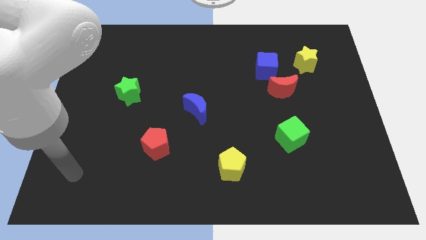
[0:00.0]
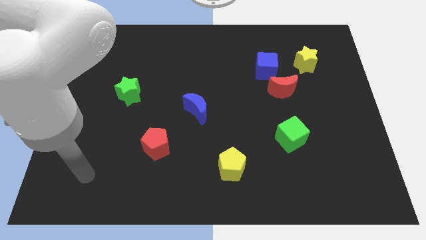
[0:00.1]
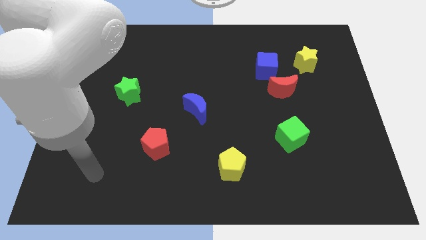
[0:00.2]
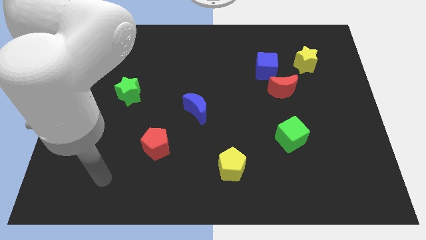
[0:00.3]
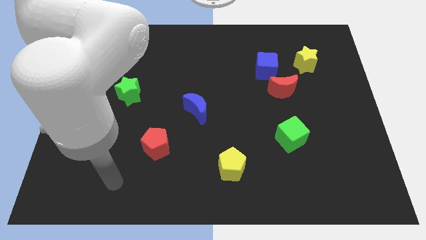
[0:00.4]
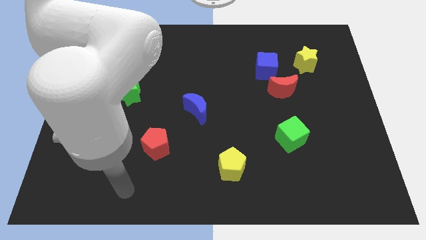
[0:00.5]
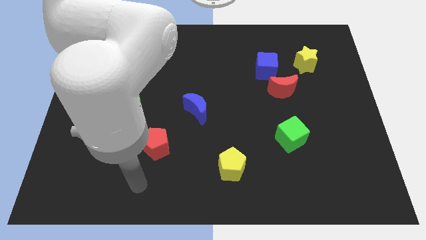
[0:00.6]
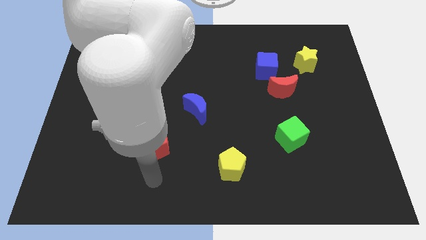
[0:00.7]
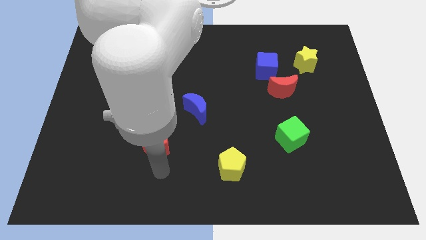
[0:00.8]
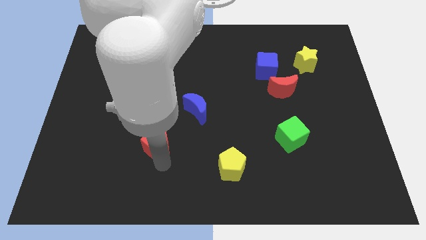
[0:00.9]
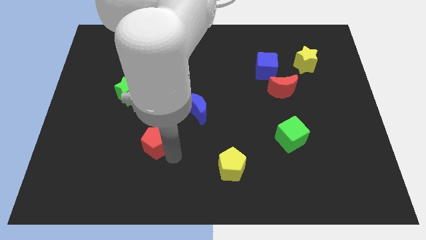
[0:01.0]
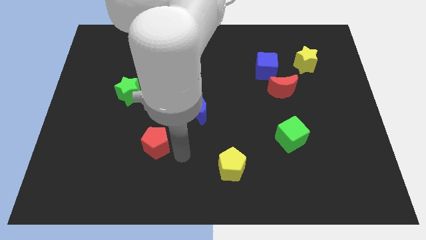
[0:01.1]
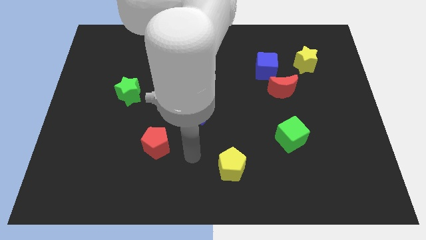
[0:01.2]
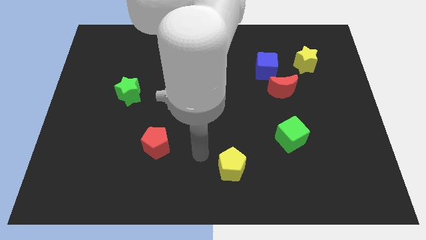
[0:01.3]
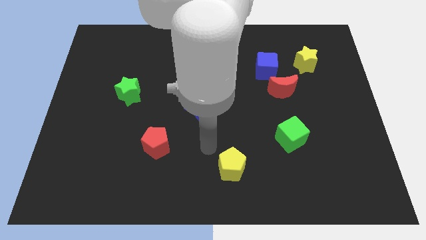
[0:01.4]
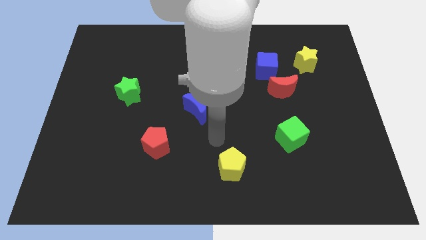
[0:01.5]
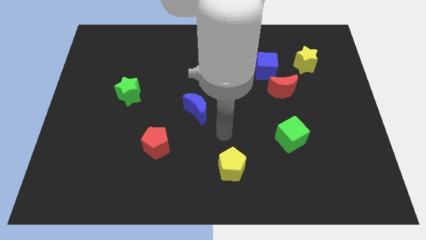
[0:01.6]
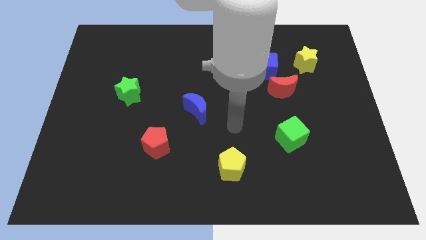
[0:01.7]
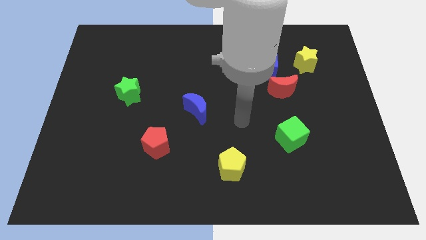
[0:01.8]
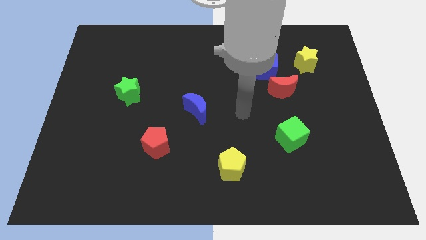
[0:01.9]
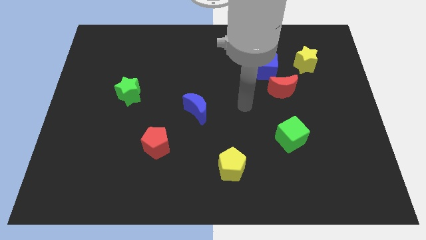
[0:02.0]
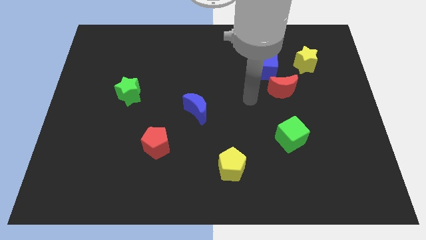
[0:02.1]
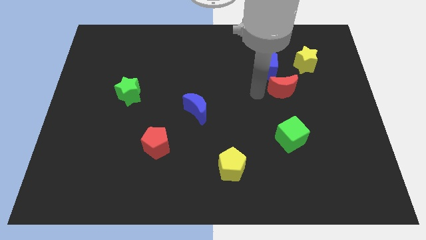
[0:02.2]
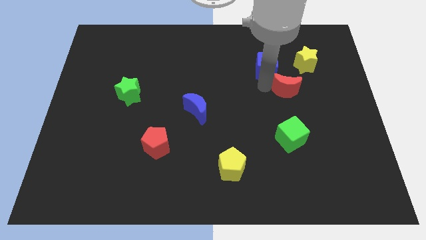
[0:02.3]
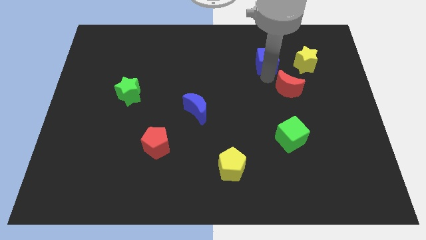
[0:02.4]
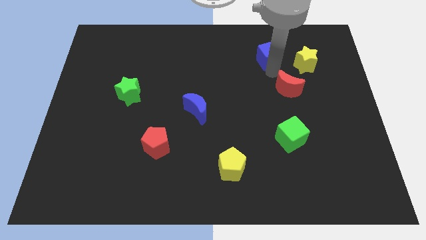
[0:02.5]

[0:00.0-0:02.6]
move the red moon away from the blue cube

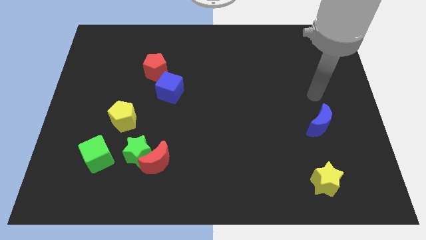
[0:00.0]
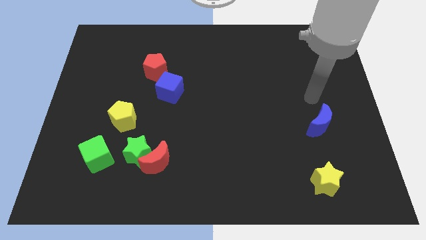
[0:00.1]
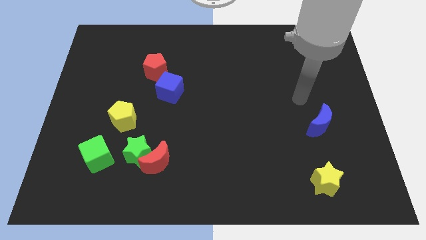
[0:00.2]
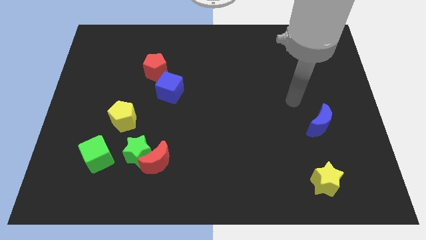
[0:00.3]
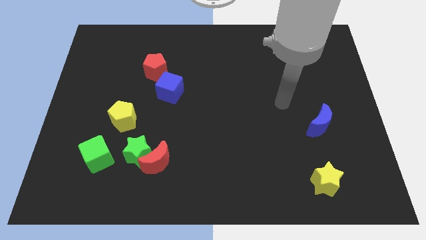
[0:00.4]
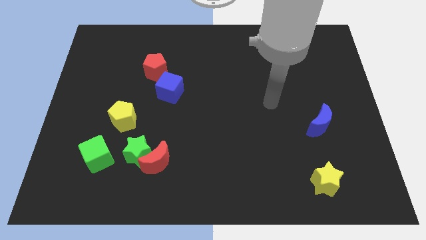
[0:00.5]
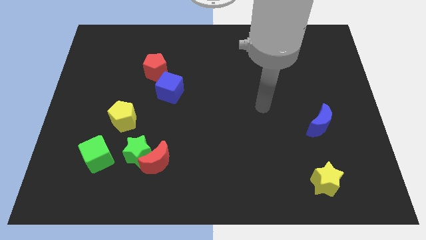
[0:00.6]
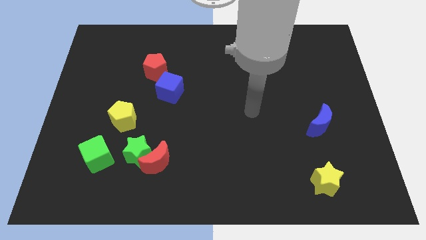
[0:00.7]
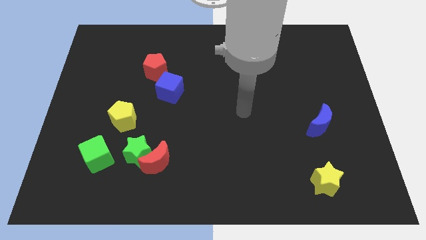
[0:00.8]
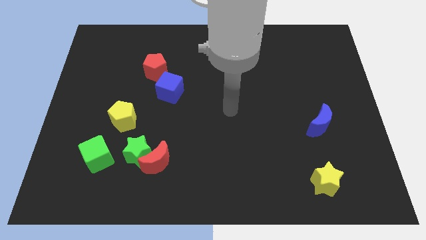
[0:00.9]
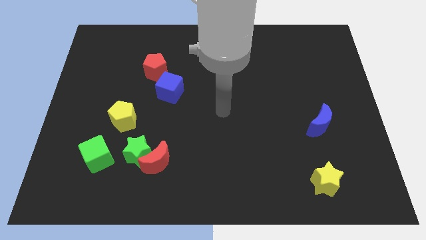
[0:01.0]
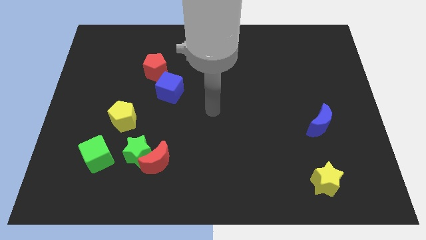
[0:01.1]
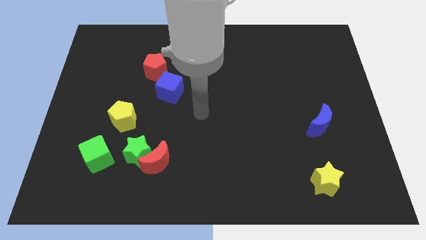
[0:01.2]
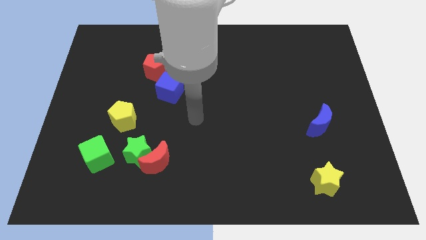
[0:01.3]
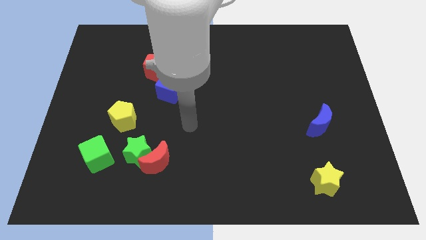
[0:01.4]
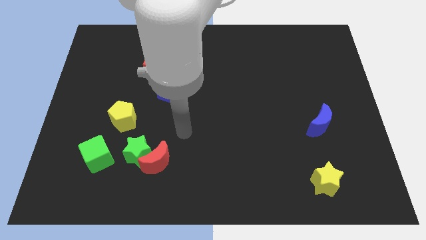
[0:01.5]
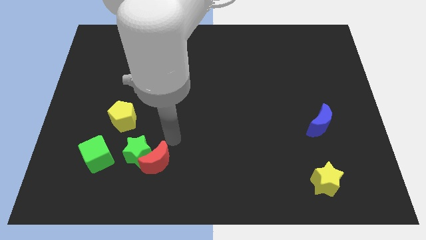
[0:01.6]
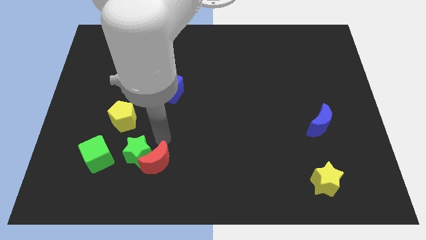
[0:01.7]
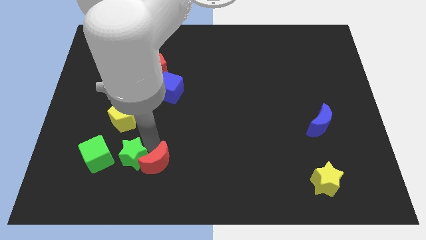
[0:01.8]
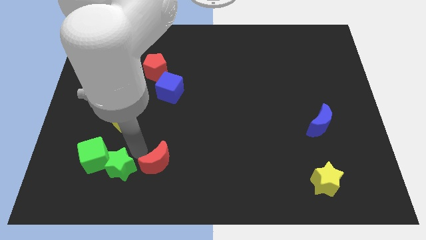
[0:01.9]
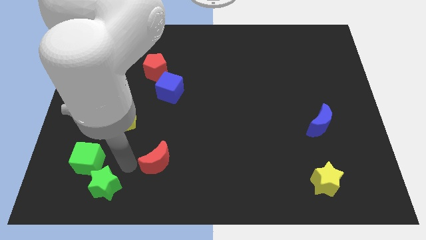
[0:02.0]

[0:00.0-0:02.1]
pull the red moon apart from the green star

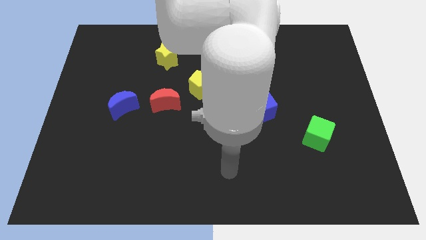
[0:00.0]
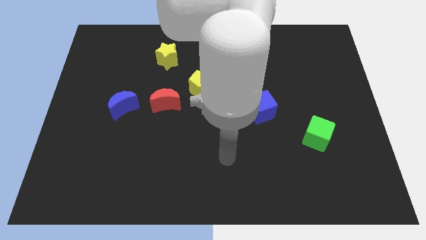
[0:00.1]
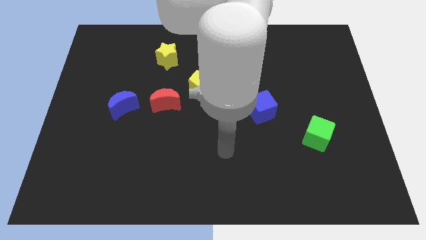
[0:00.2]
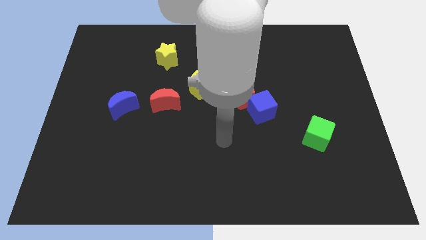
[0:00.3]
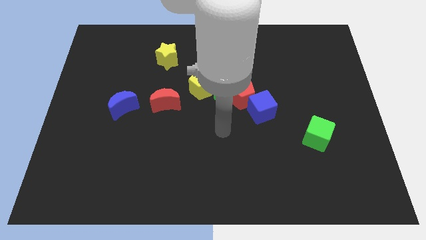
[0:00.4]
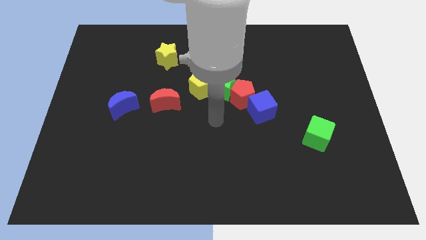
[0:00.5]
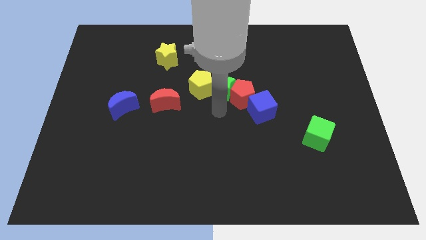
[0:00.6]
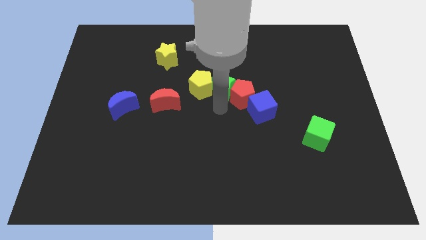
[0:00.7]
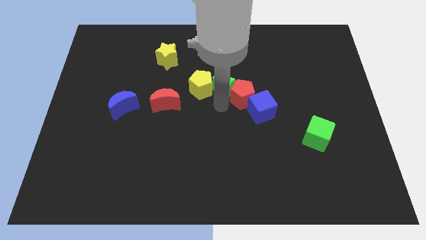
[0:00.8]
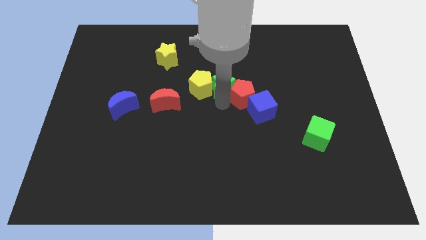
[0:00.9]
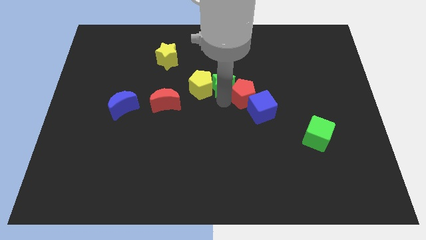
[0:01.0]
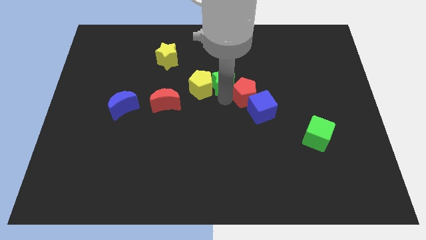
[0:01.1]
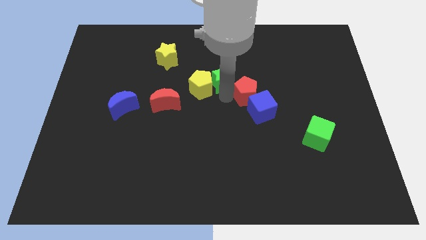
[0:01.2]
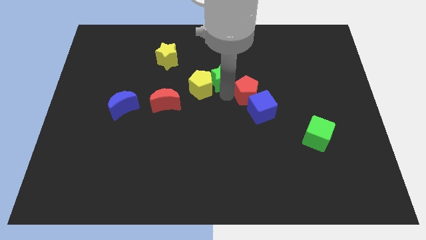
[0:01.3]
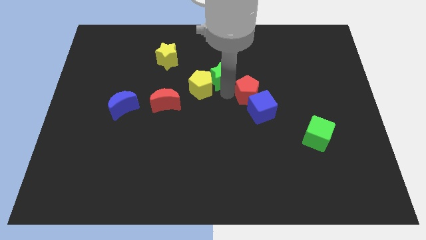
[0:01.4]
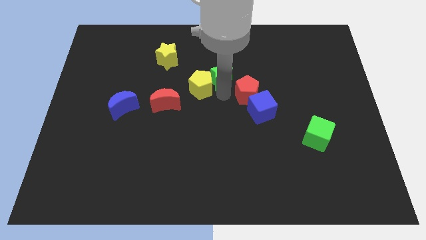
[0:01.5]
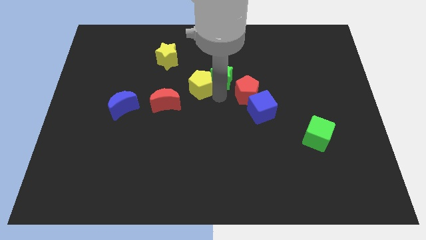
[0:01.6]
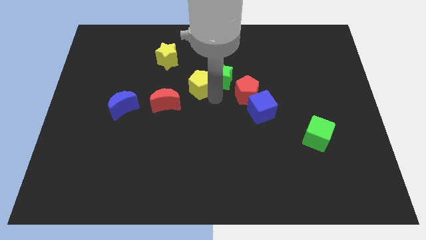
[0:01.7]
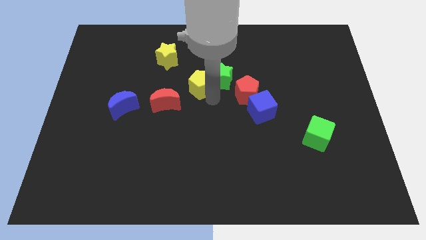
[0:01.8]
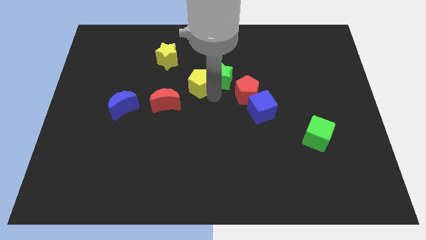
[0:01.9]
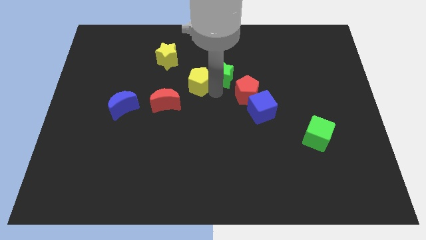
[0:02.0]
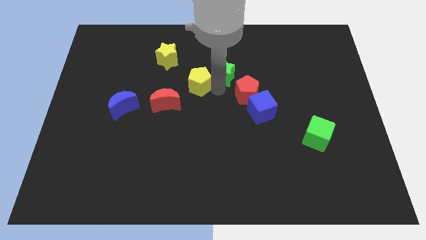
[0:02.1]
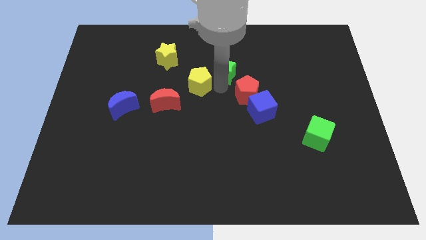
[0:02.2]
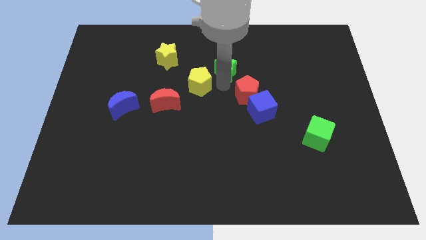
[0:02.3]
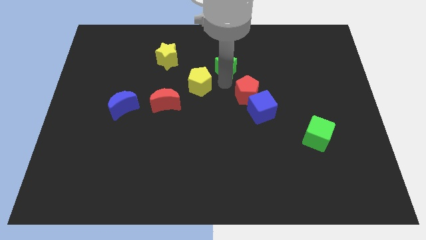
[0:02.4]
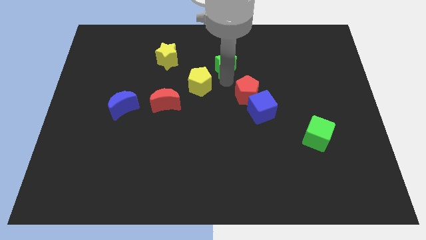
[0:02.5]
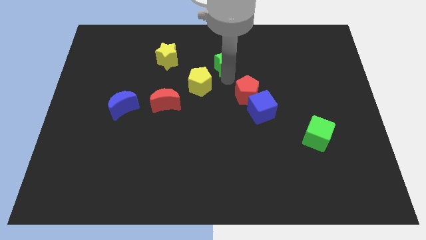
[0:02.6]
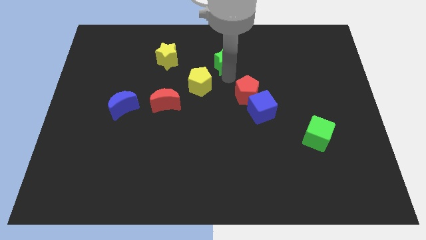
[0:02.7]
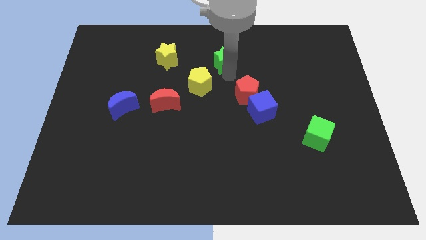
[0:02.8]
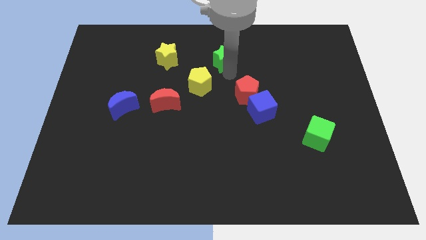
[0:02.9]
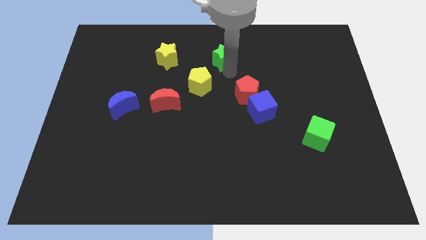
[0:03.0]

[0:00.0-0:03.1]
pull the green star apart from the yellow pentagon and red pentagon

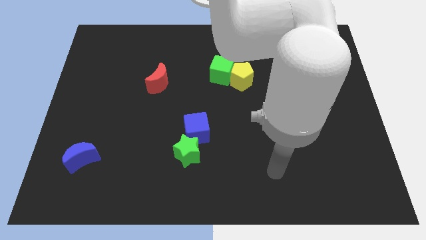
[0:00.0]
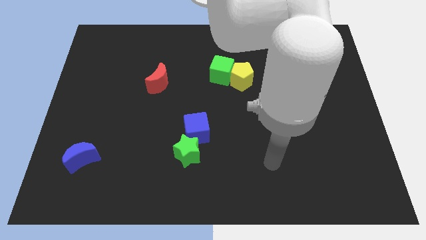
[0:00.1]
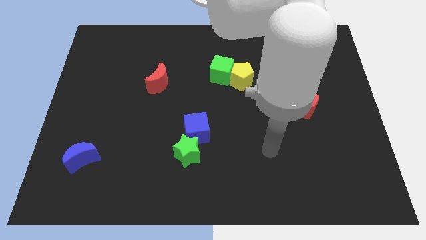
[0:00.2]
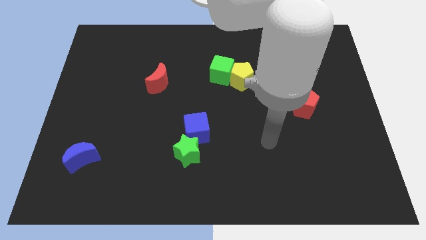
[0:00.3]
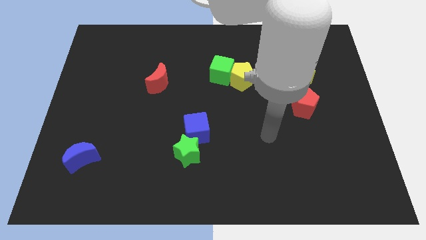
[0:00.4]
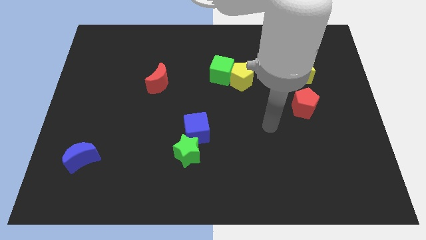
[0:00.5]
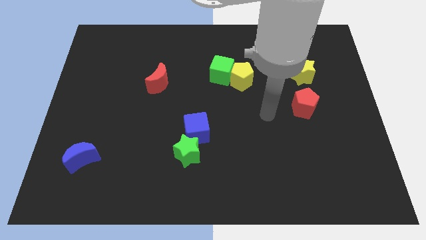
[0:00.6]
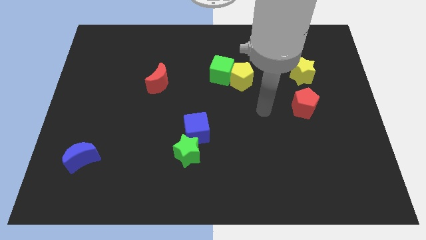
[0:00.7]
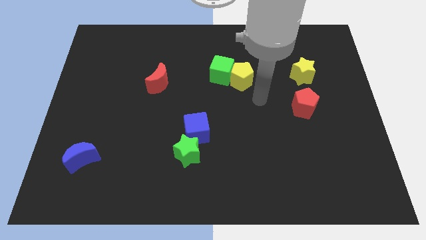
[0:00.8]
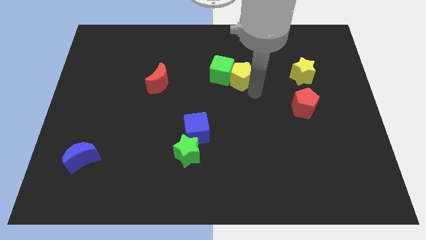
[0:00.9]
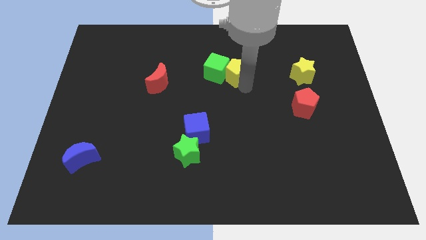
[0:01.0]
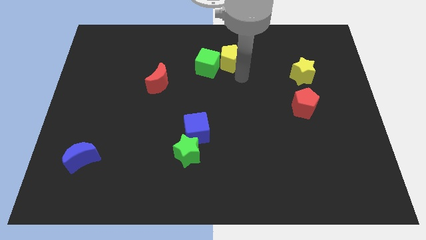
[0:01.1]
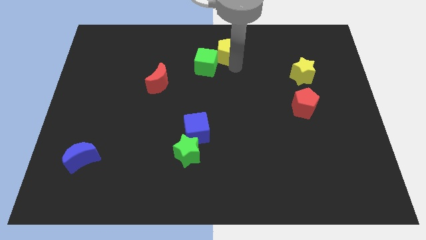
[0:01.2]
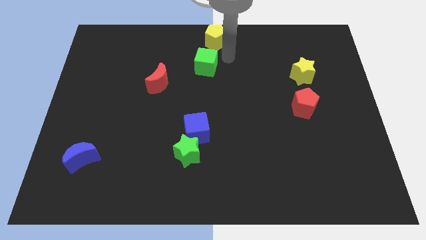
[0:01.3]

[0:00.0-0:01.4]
pull the green cube apart from the yellow pentagon

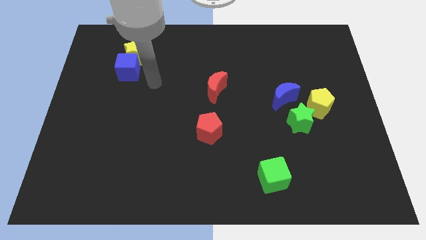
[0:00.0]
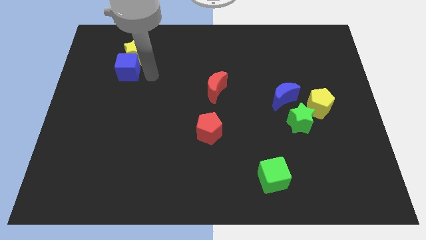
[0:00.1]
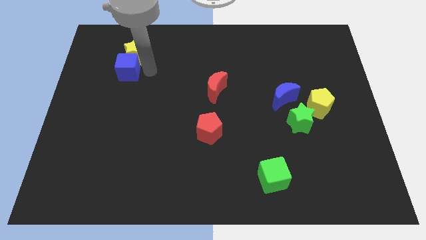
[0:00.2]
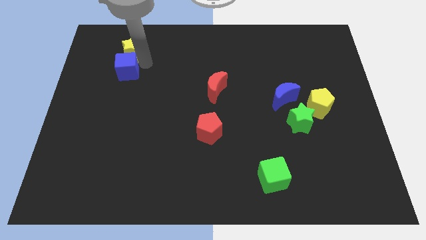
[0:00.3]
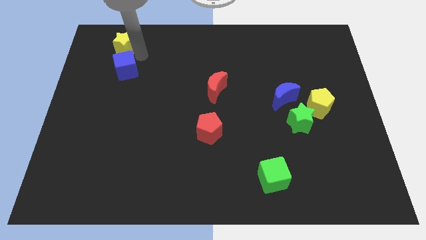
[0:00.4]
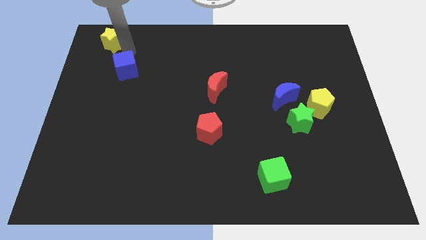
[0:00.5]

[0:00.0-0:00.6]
separate the blue cube from the yellow star
